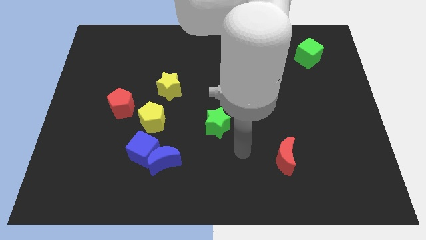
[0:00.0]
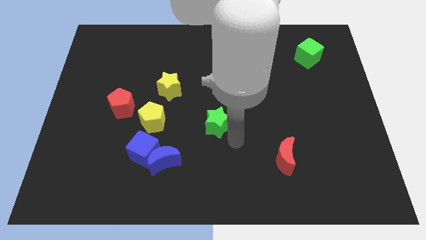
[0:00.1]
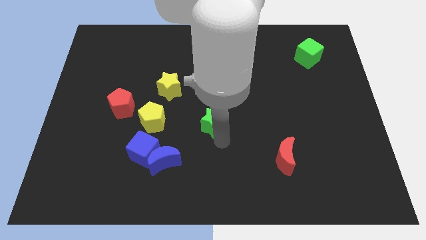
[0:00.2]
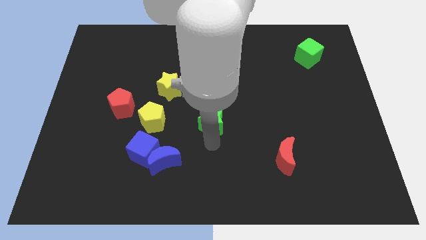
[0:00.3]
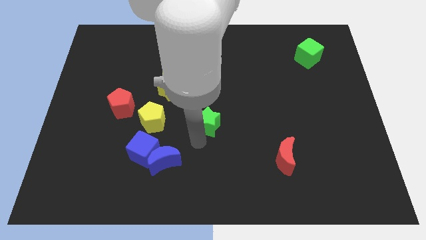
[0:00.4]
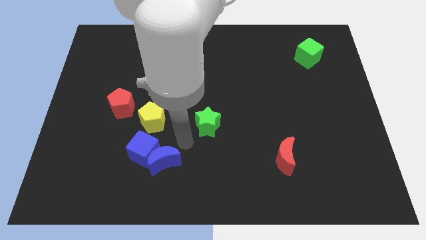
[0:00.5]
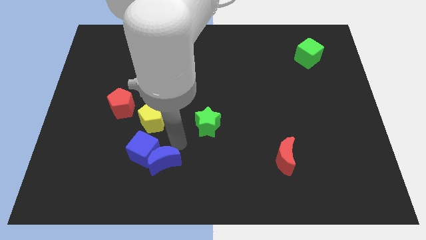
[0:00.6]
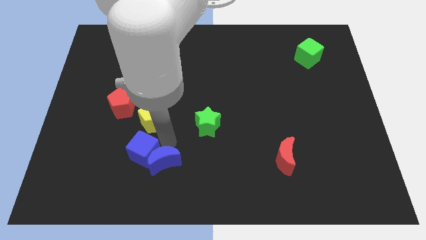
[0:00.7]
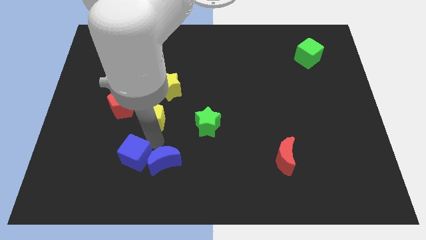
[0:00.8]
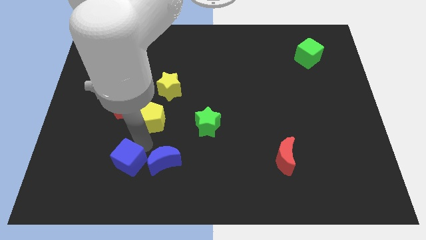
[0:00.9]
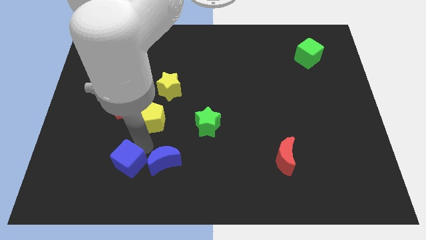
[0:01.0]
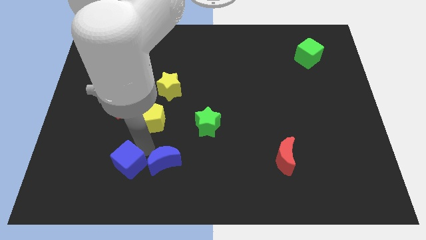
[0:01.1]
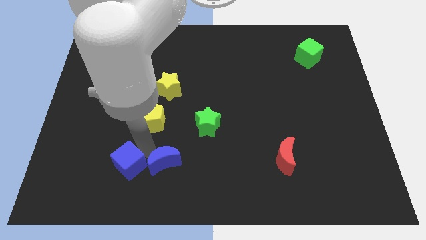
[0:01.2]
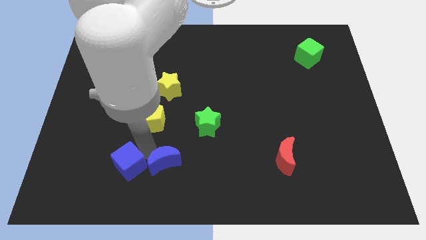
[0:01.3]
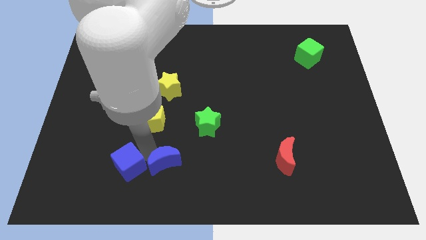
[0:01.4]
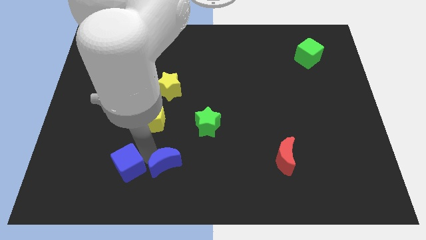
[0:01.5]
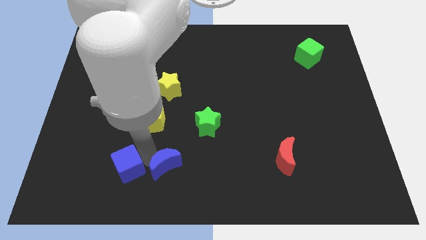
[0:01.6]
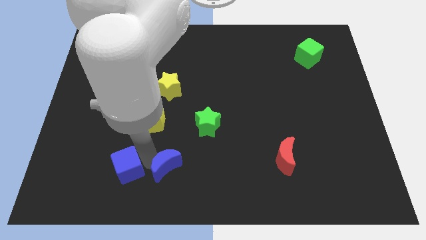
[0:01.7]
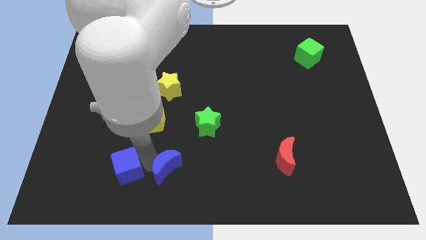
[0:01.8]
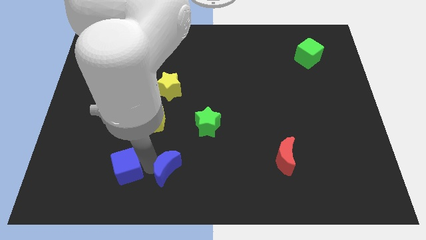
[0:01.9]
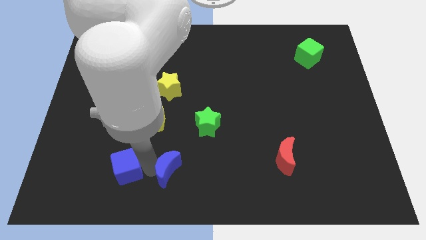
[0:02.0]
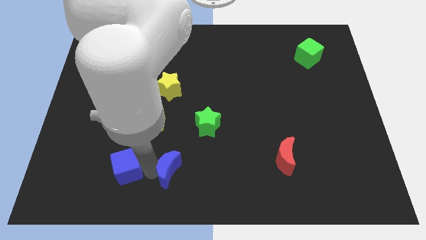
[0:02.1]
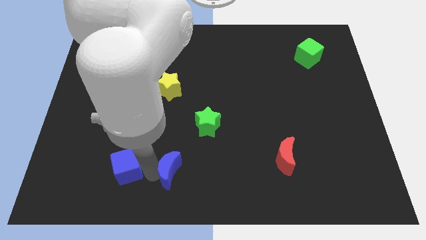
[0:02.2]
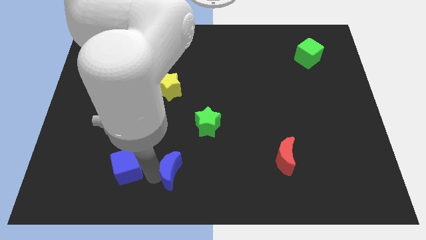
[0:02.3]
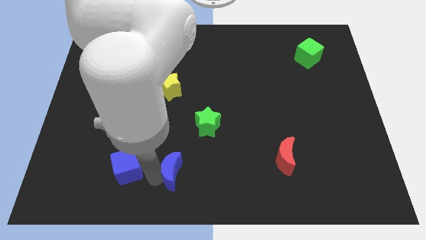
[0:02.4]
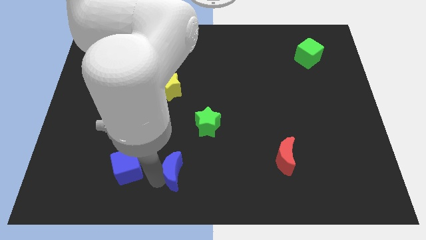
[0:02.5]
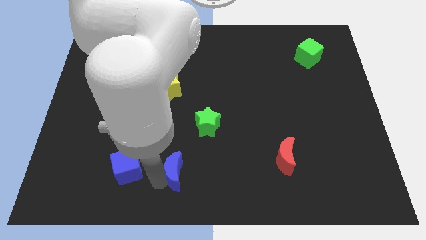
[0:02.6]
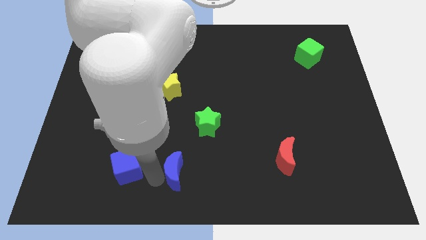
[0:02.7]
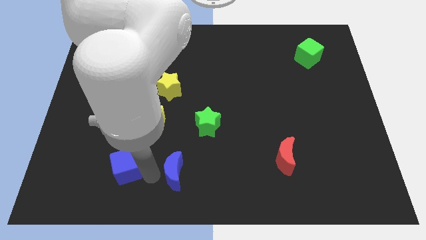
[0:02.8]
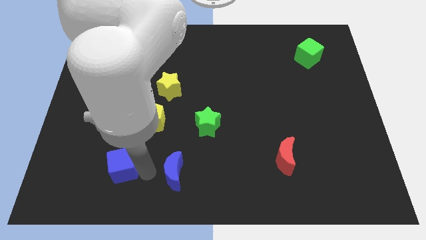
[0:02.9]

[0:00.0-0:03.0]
pull the blue moon apart from the blue cube

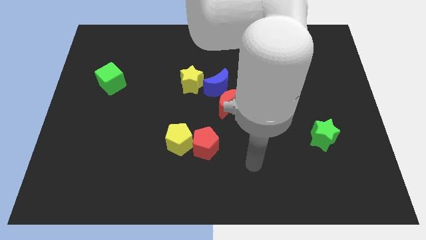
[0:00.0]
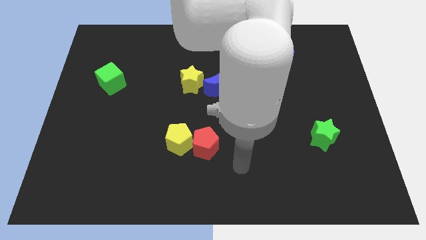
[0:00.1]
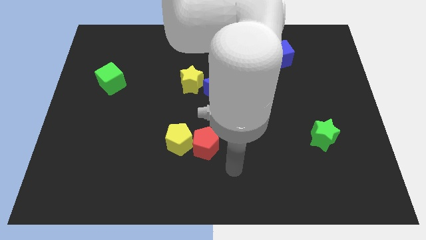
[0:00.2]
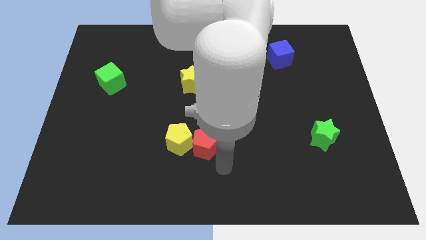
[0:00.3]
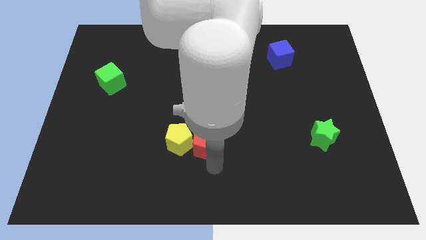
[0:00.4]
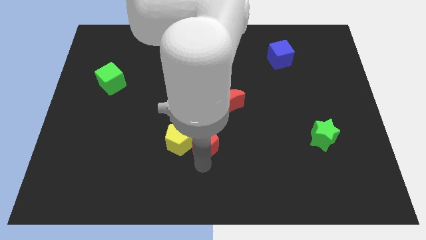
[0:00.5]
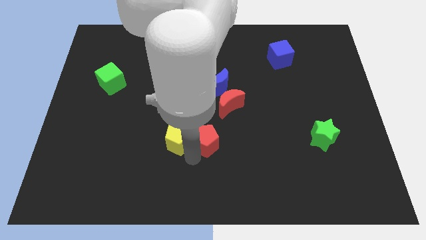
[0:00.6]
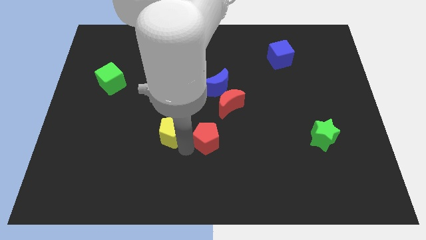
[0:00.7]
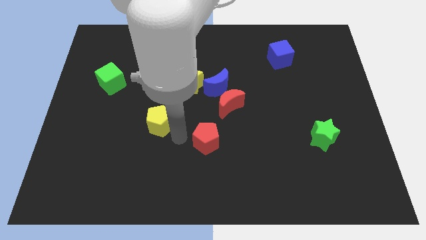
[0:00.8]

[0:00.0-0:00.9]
pull the red pentagon apart from the yellow pentagon

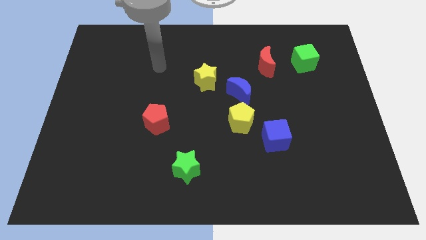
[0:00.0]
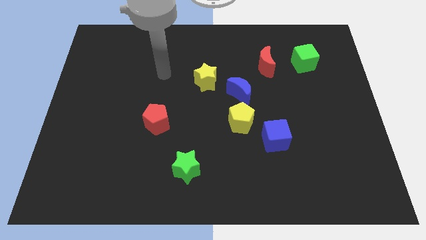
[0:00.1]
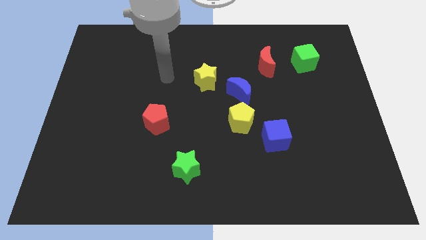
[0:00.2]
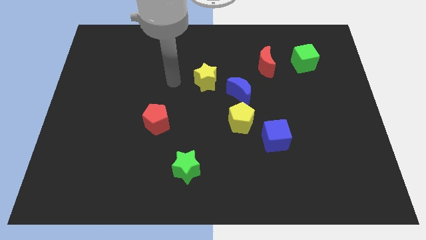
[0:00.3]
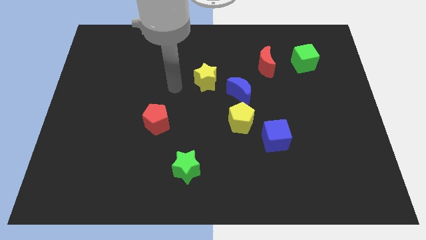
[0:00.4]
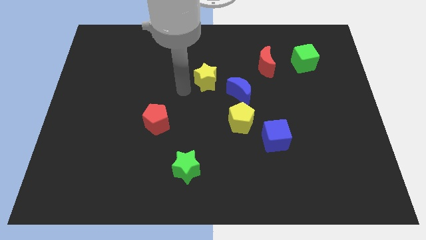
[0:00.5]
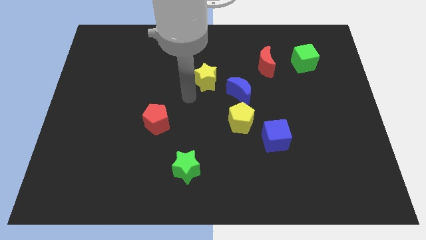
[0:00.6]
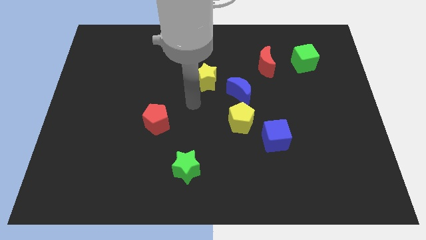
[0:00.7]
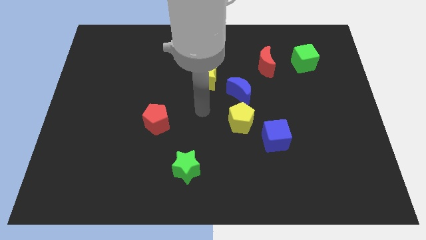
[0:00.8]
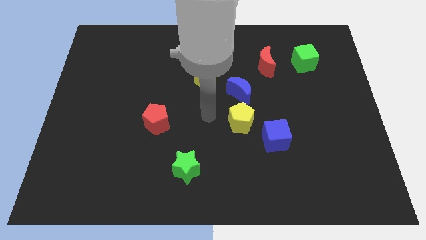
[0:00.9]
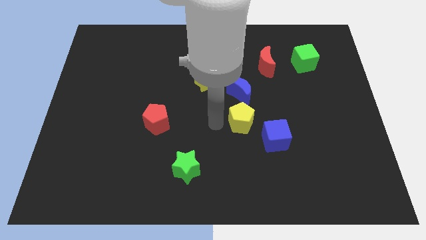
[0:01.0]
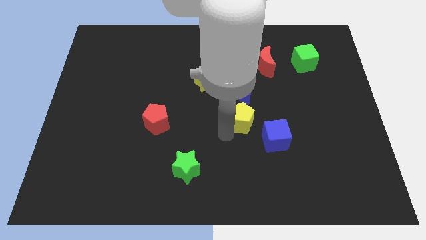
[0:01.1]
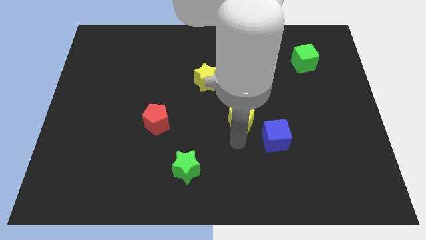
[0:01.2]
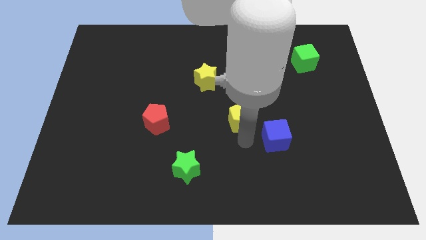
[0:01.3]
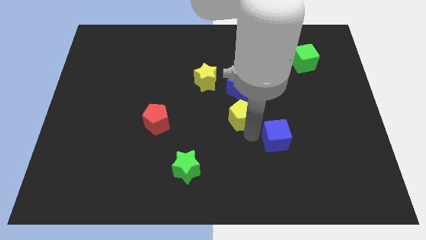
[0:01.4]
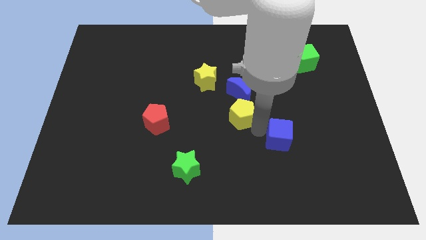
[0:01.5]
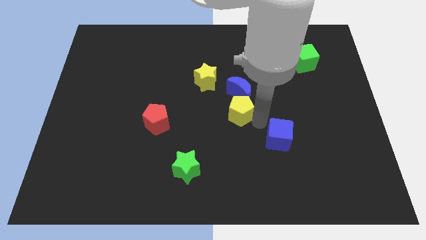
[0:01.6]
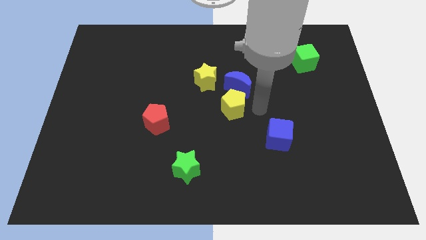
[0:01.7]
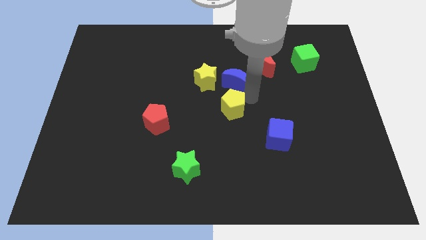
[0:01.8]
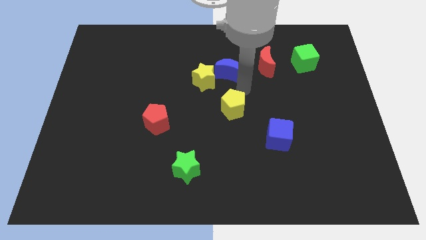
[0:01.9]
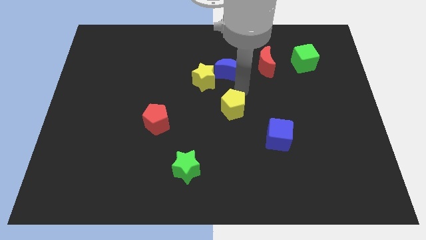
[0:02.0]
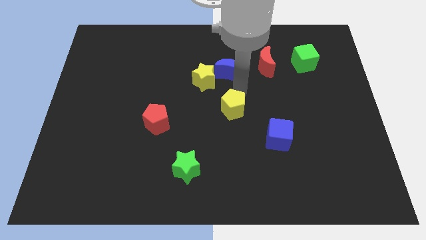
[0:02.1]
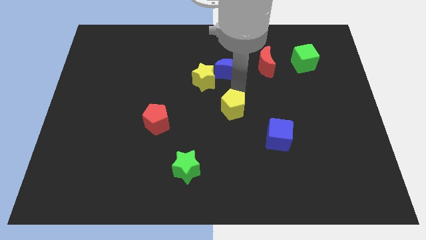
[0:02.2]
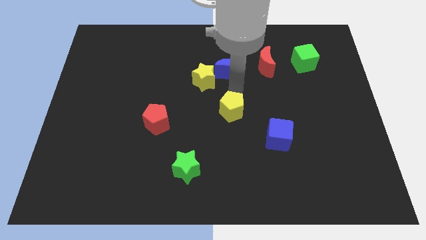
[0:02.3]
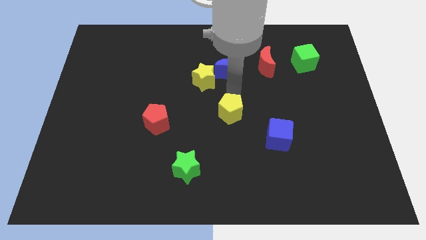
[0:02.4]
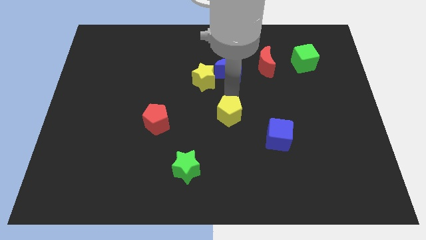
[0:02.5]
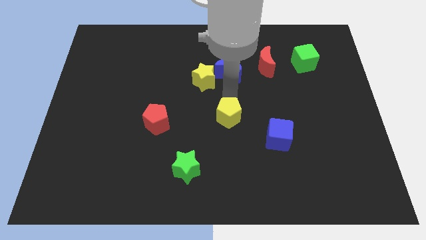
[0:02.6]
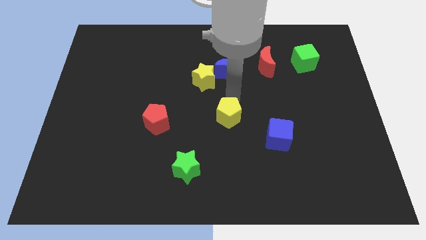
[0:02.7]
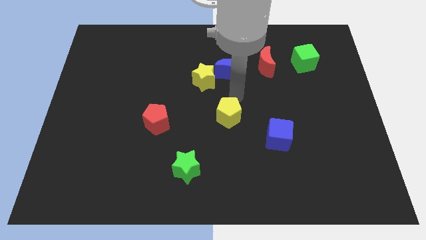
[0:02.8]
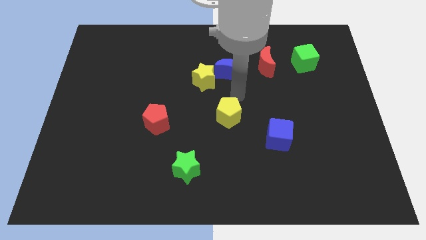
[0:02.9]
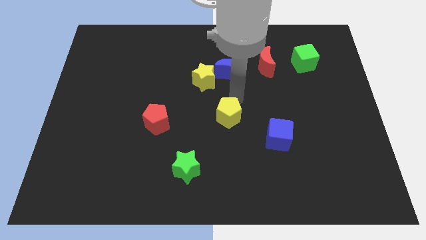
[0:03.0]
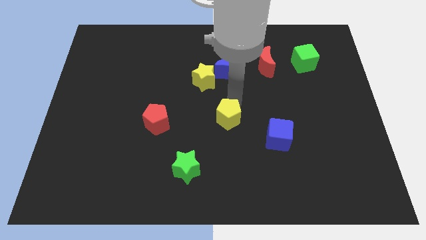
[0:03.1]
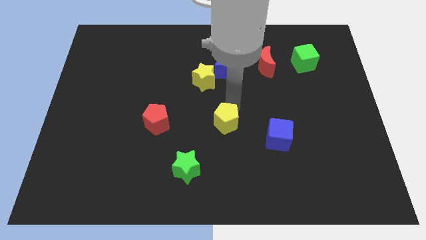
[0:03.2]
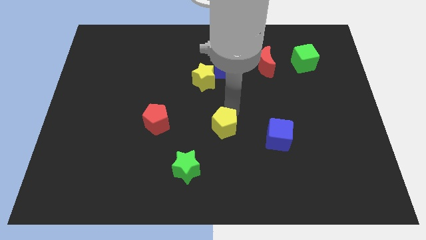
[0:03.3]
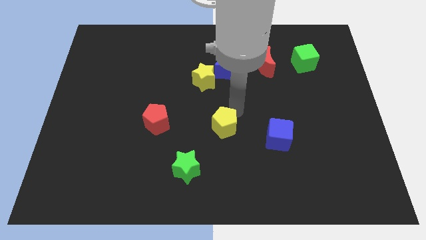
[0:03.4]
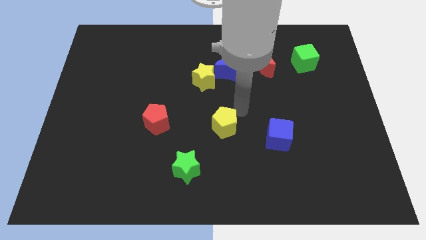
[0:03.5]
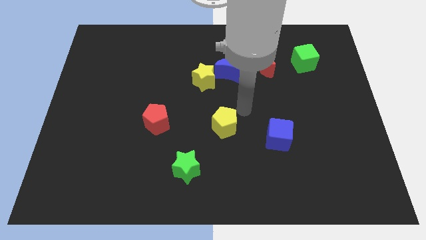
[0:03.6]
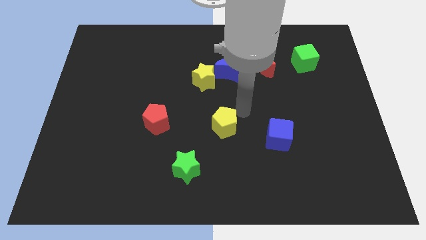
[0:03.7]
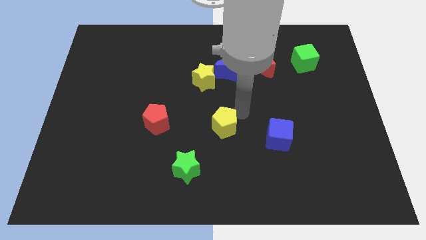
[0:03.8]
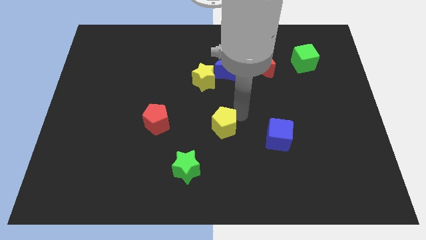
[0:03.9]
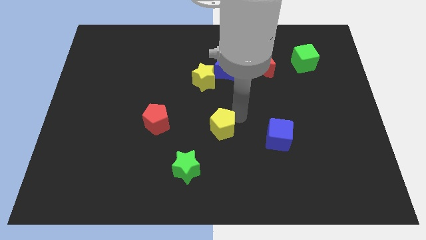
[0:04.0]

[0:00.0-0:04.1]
separate the yellow pentagon from the blue moon and blue cube

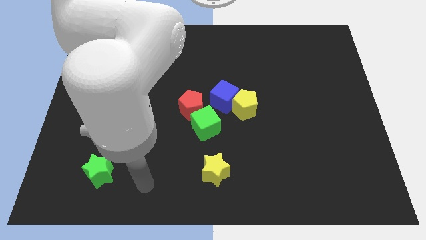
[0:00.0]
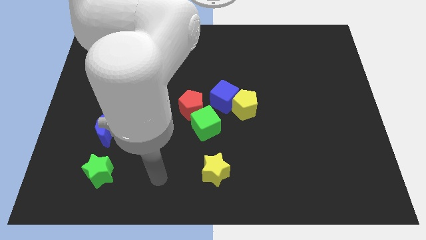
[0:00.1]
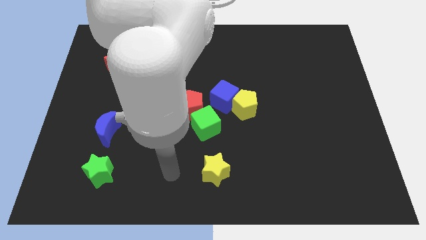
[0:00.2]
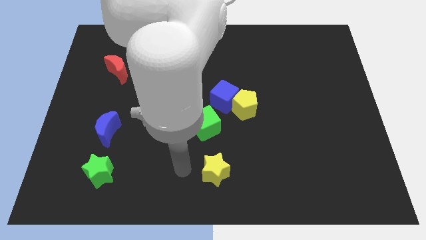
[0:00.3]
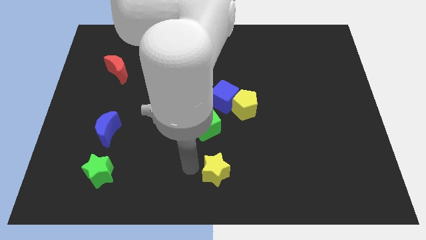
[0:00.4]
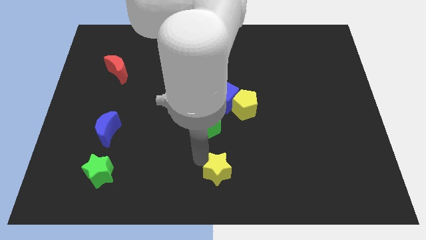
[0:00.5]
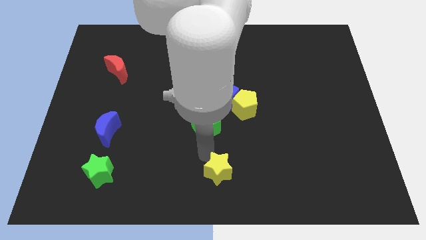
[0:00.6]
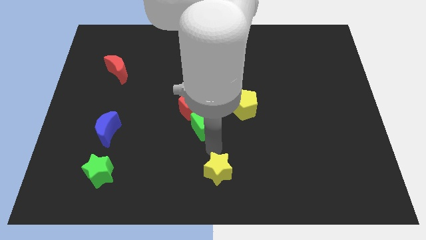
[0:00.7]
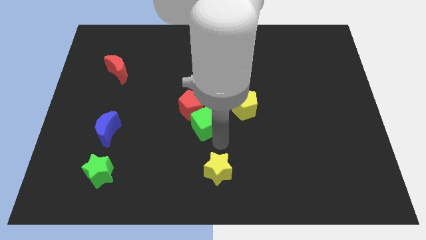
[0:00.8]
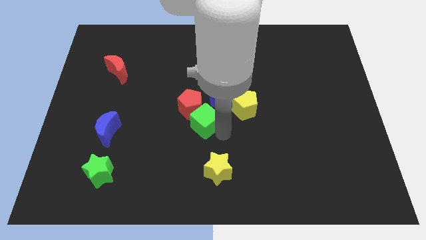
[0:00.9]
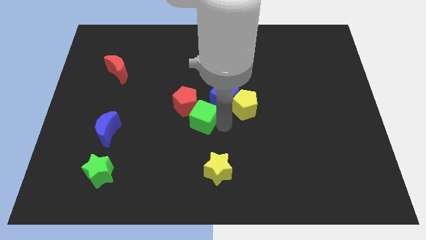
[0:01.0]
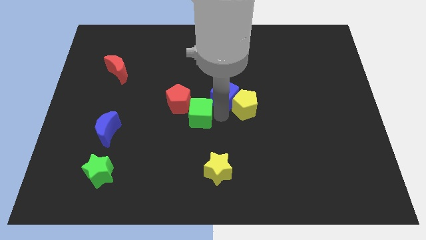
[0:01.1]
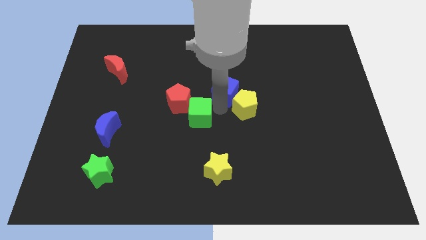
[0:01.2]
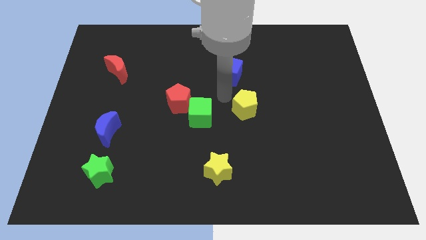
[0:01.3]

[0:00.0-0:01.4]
pull the yellow pentagon apart from the blue cube

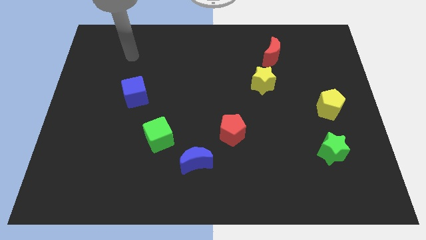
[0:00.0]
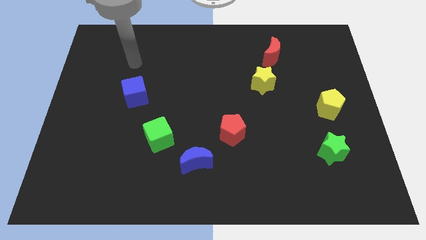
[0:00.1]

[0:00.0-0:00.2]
move the blue moon away from the green cube
